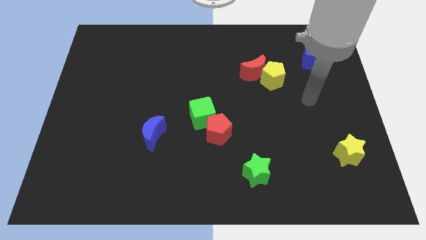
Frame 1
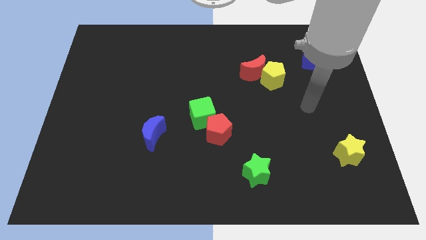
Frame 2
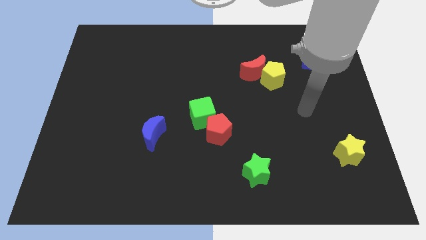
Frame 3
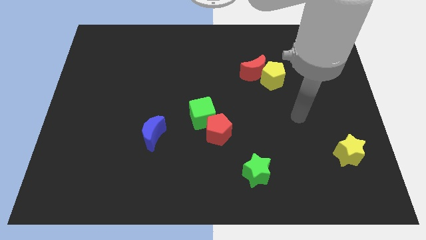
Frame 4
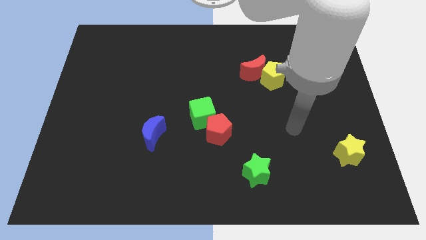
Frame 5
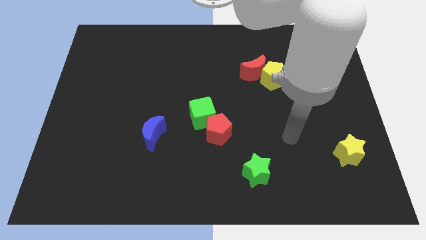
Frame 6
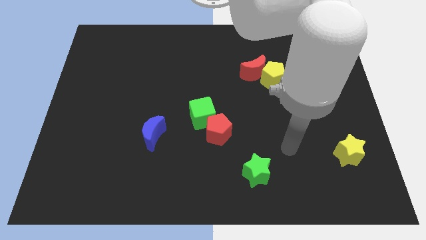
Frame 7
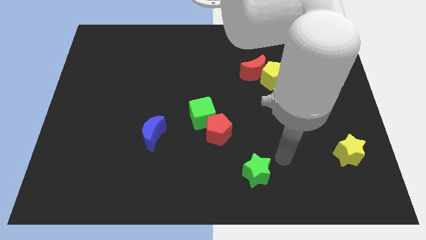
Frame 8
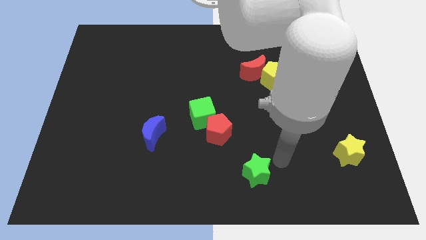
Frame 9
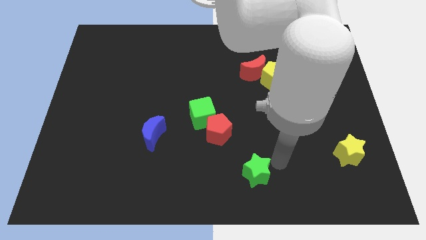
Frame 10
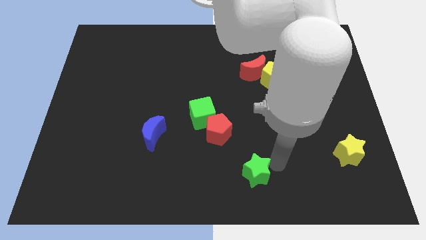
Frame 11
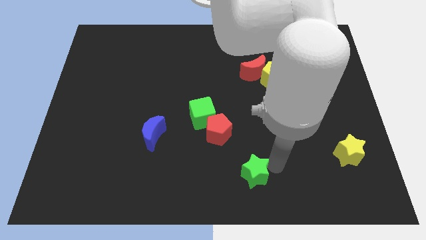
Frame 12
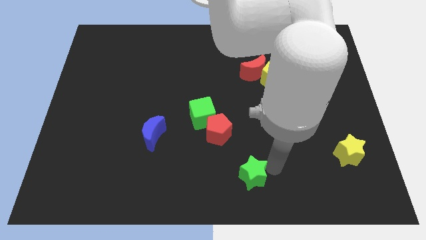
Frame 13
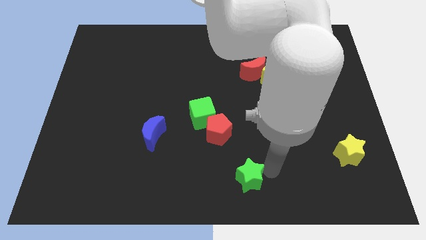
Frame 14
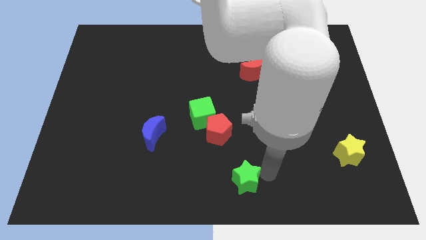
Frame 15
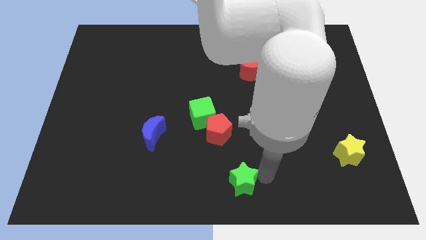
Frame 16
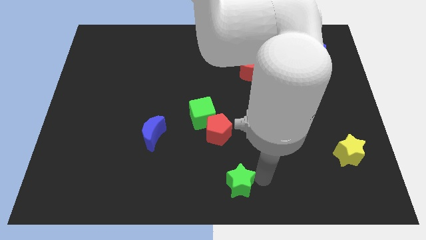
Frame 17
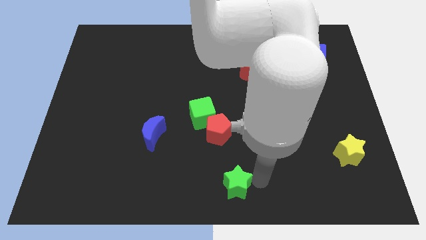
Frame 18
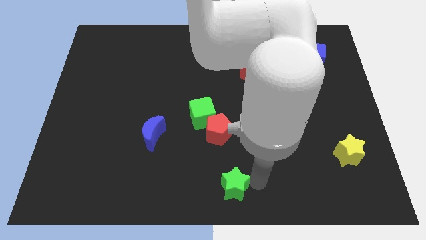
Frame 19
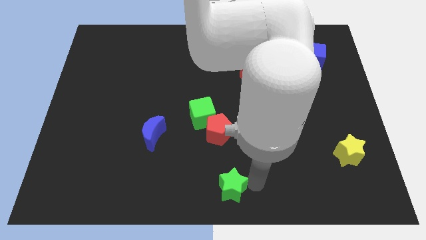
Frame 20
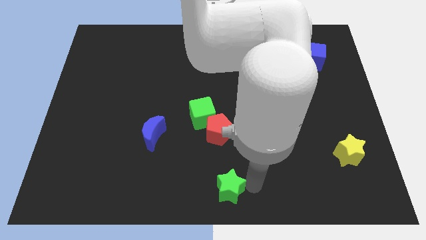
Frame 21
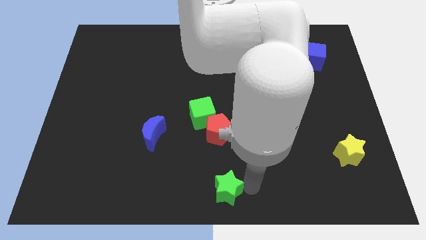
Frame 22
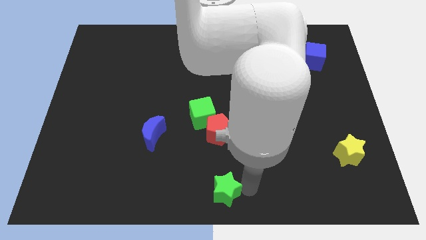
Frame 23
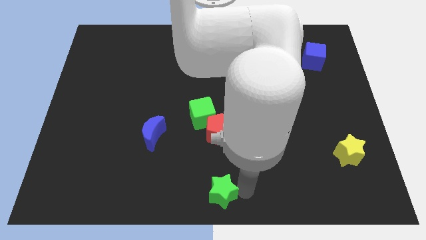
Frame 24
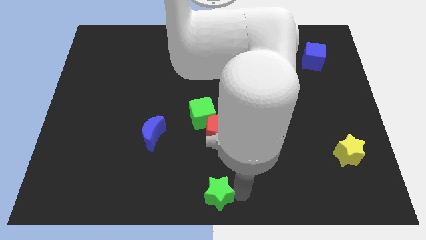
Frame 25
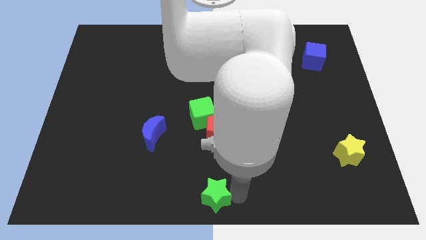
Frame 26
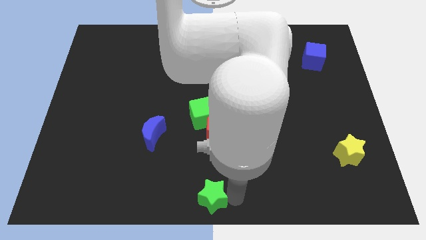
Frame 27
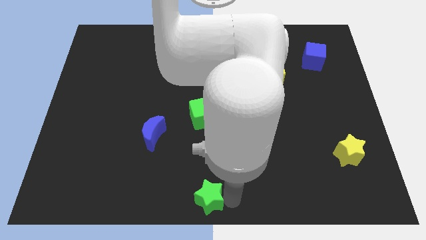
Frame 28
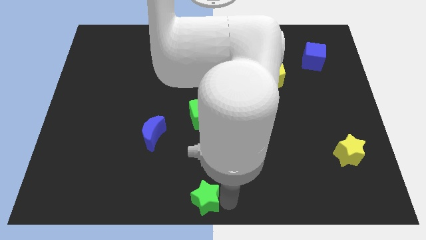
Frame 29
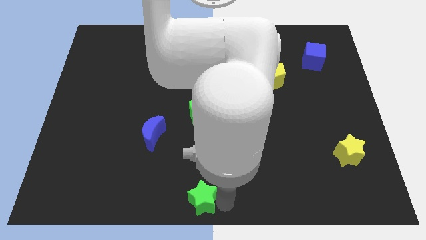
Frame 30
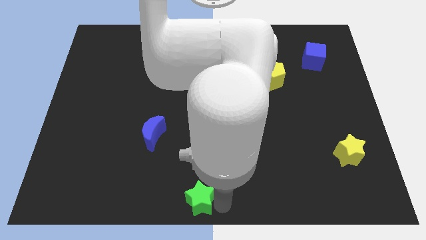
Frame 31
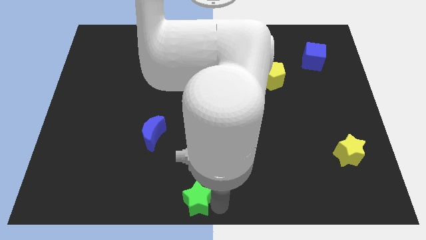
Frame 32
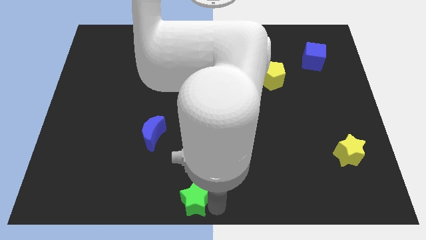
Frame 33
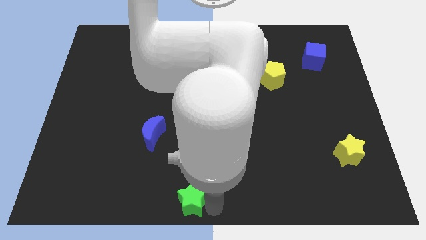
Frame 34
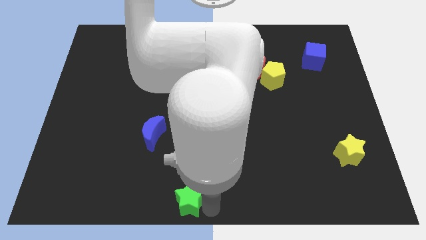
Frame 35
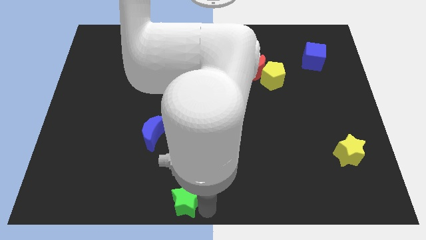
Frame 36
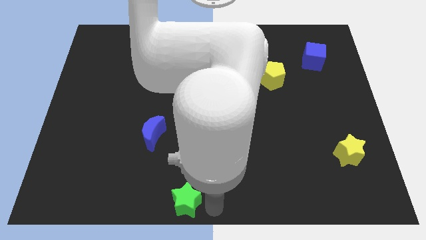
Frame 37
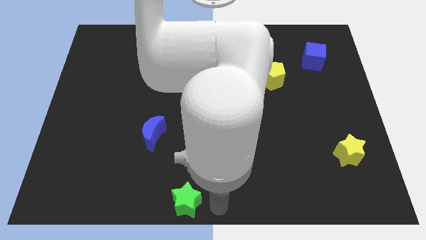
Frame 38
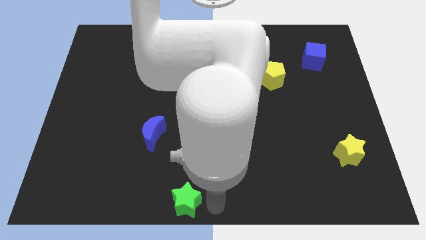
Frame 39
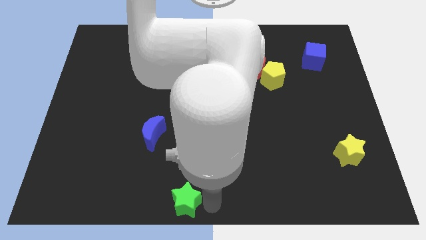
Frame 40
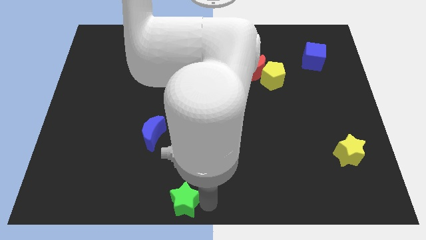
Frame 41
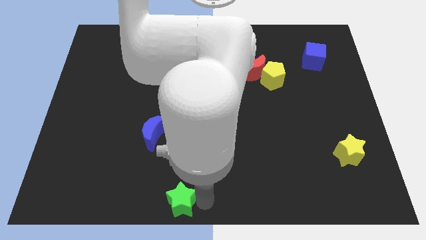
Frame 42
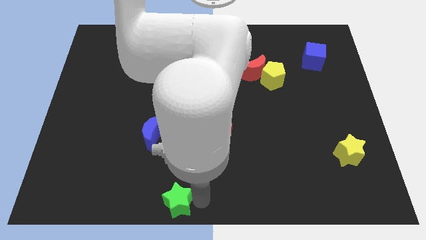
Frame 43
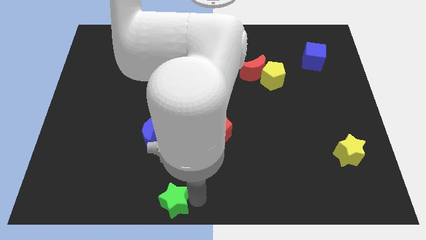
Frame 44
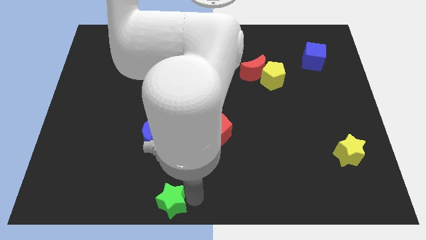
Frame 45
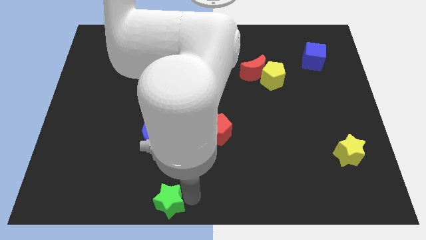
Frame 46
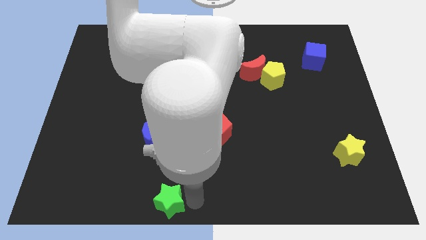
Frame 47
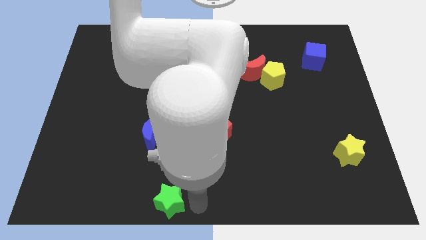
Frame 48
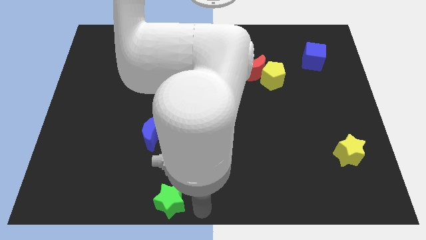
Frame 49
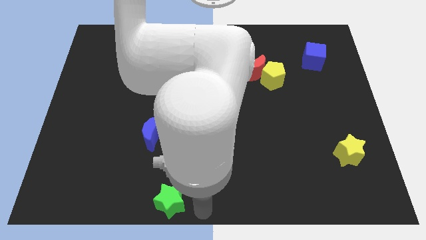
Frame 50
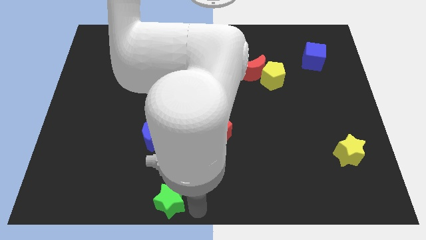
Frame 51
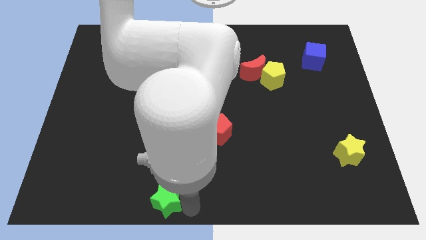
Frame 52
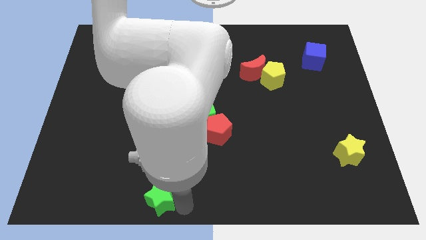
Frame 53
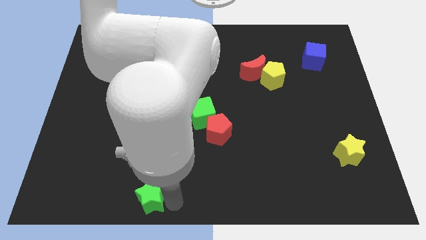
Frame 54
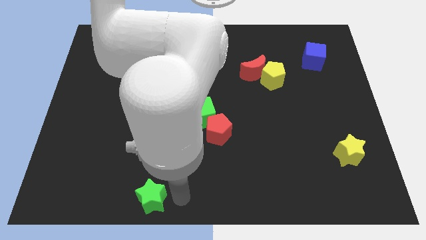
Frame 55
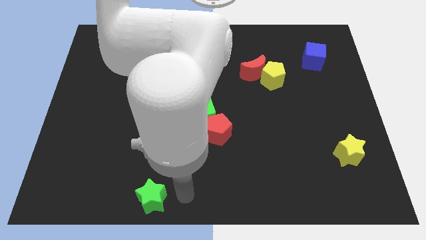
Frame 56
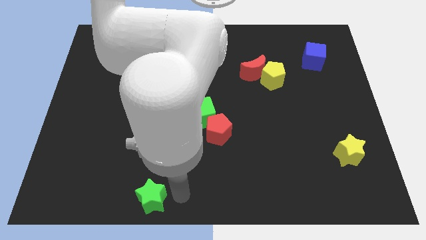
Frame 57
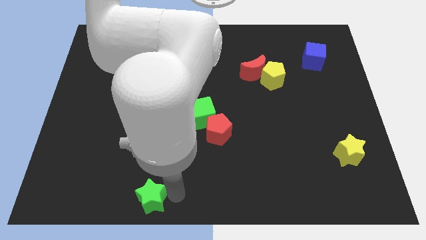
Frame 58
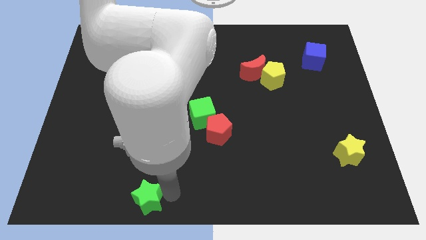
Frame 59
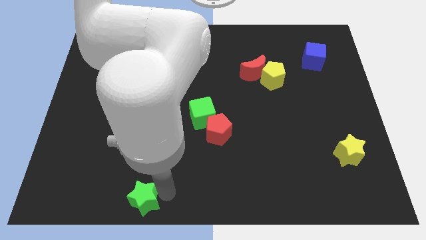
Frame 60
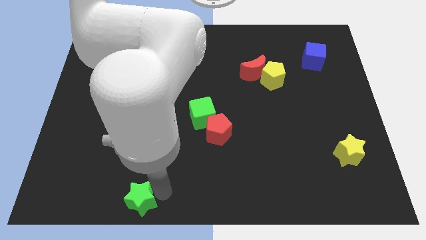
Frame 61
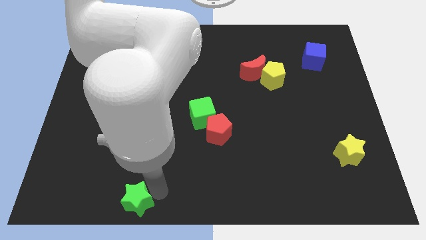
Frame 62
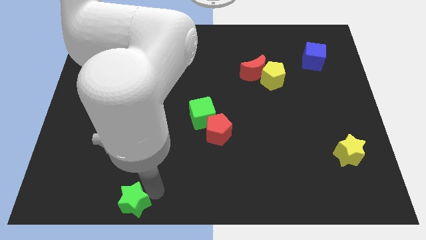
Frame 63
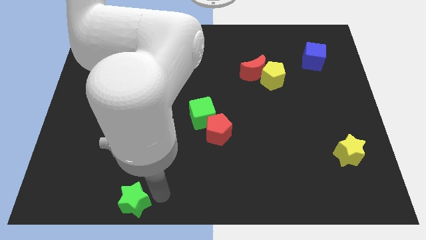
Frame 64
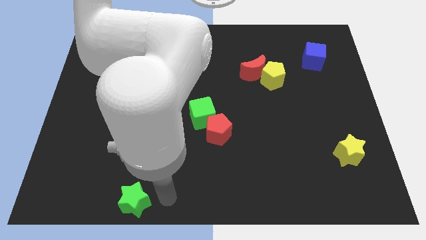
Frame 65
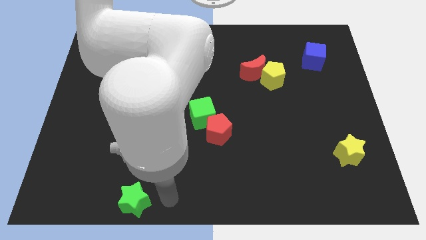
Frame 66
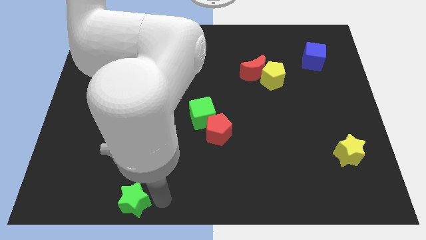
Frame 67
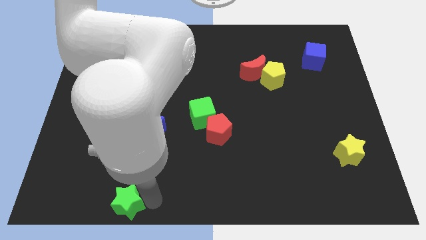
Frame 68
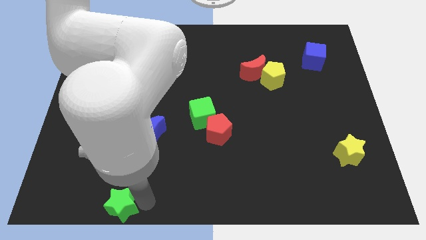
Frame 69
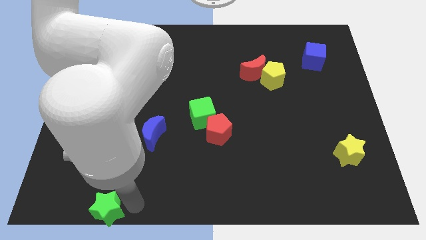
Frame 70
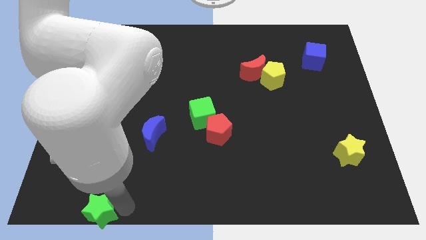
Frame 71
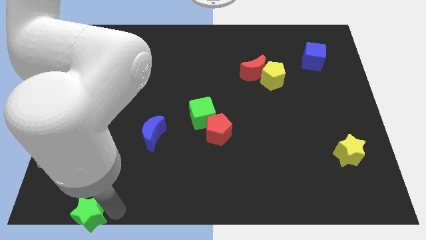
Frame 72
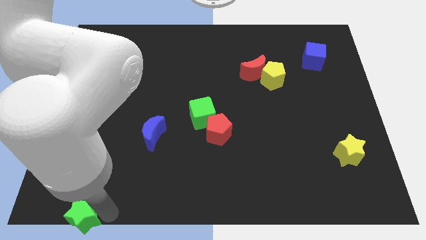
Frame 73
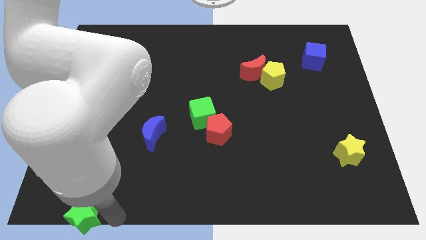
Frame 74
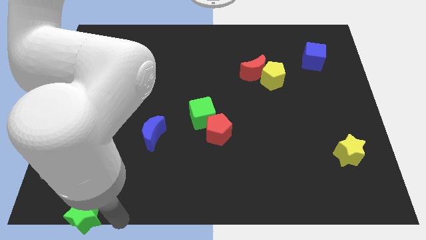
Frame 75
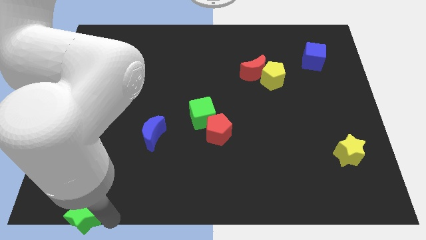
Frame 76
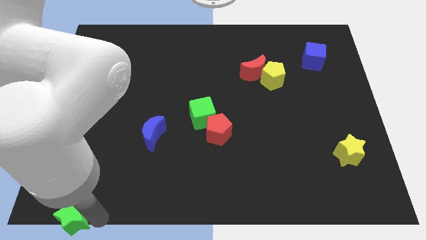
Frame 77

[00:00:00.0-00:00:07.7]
push the green star to the lower left corner
